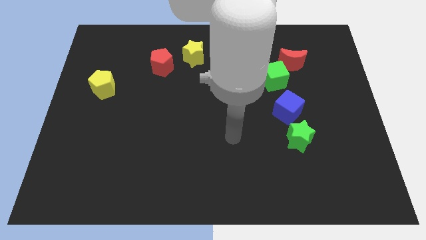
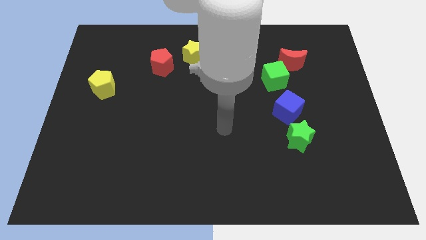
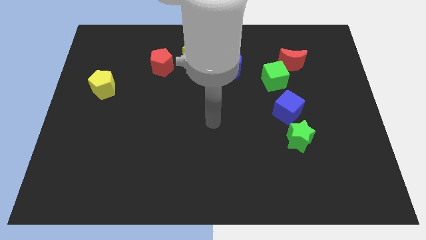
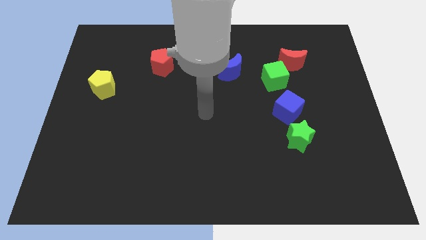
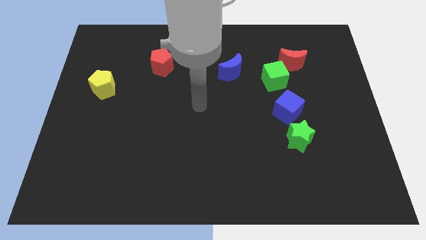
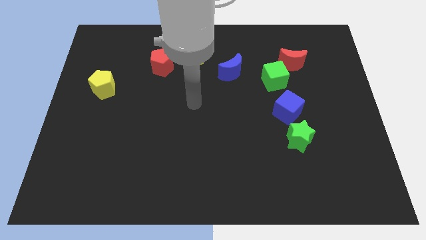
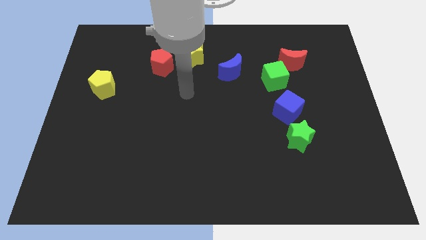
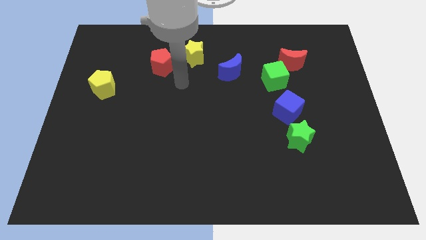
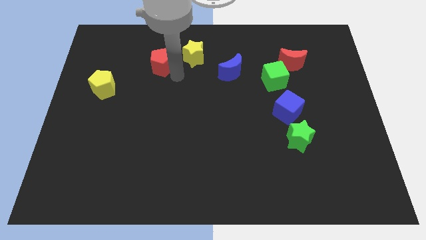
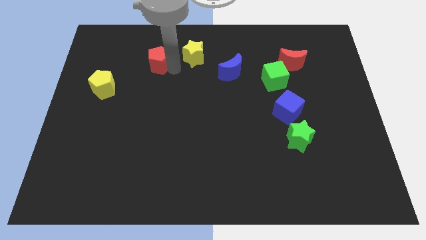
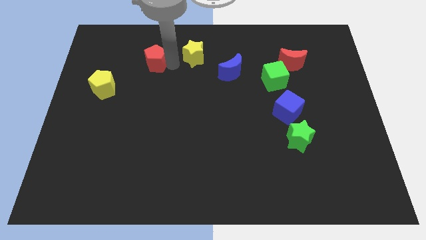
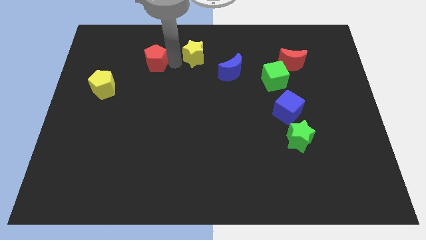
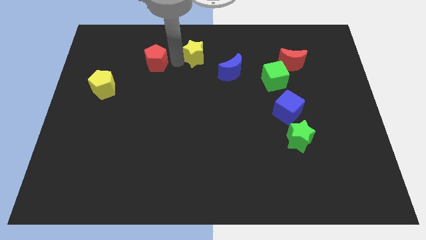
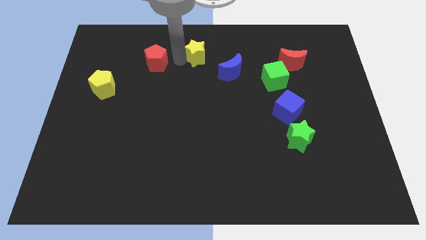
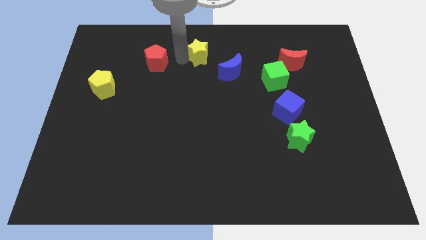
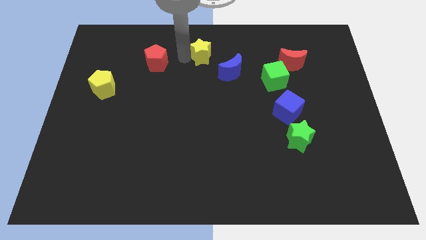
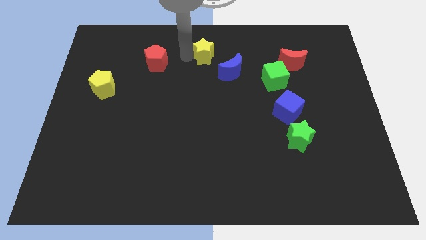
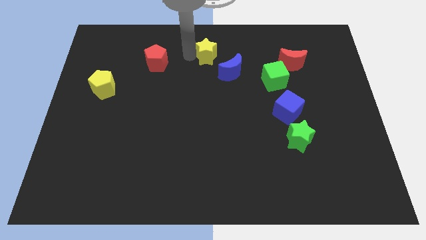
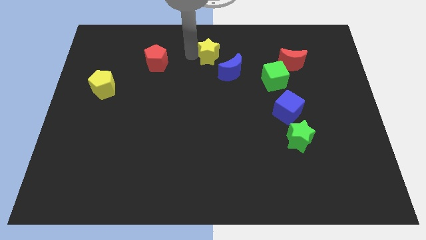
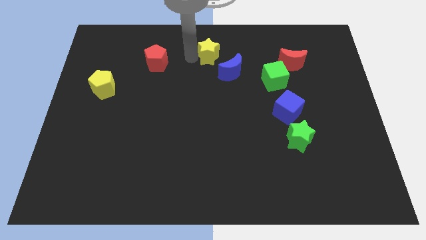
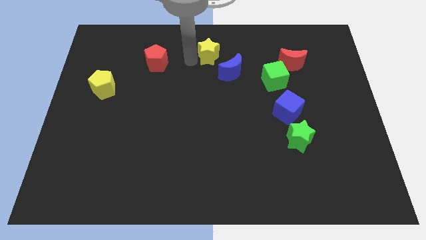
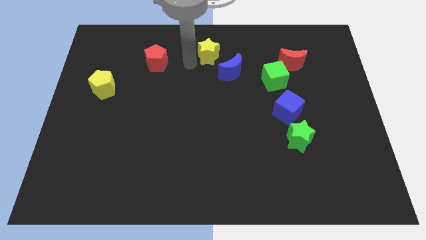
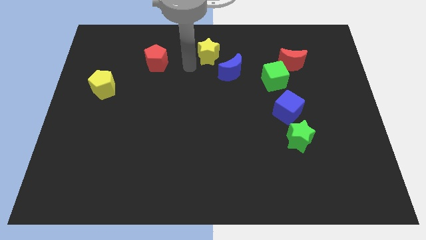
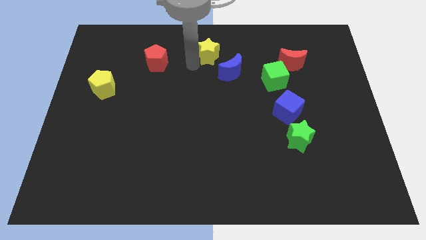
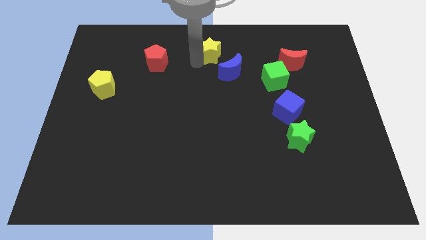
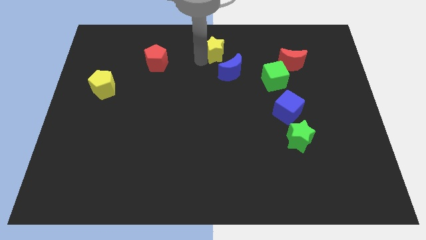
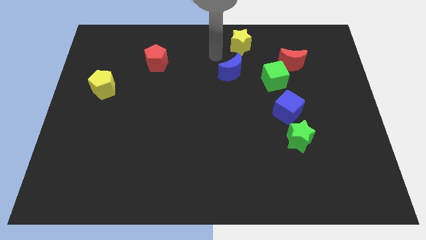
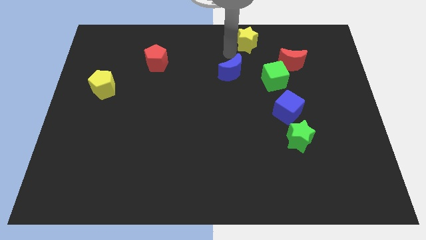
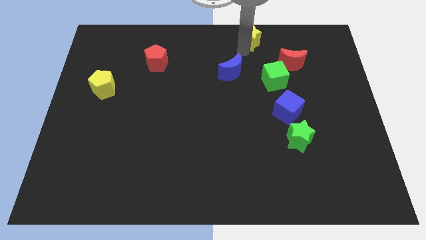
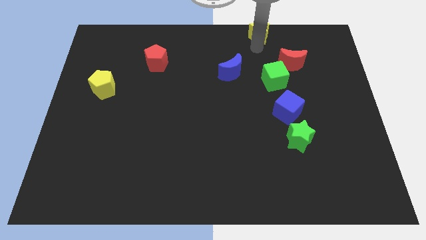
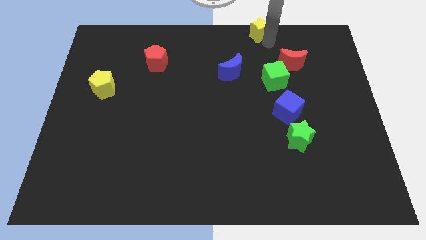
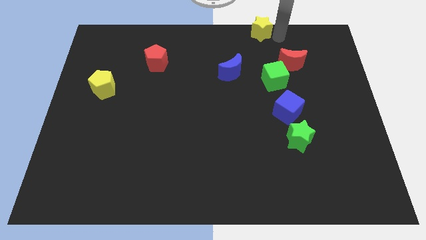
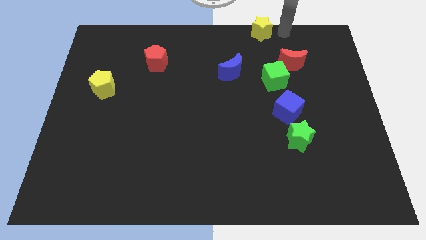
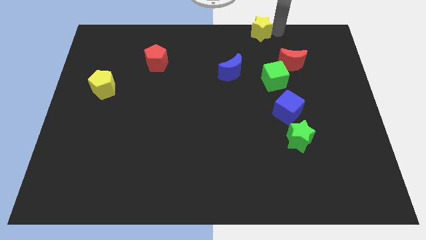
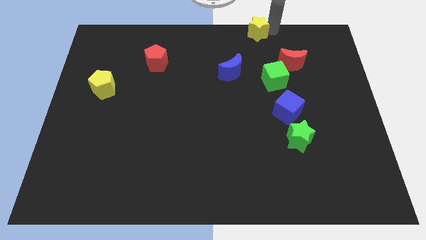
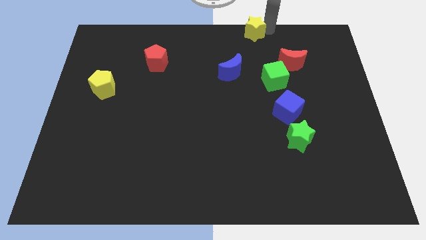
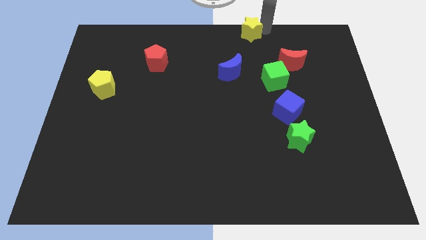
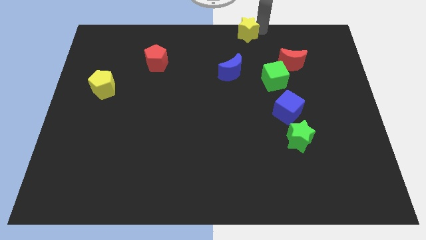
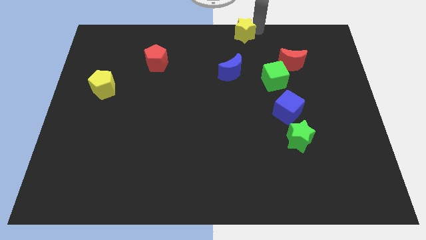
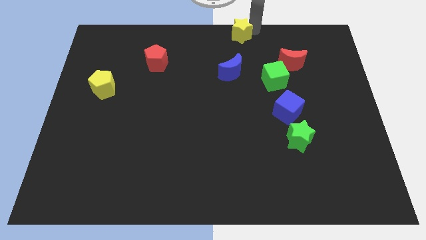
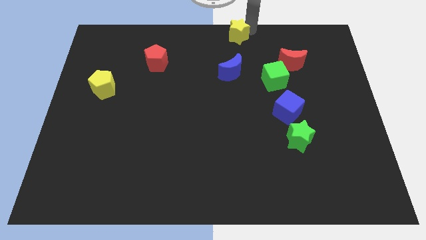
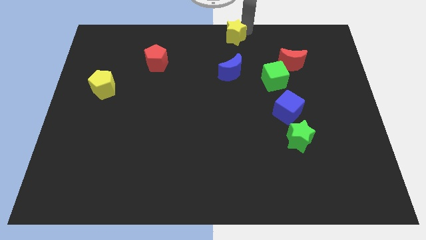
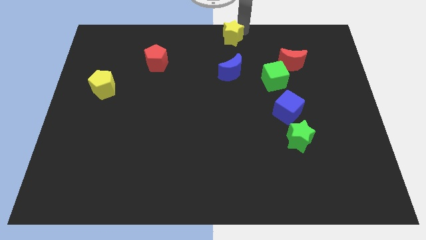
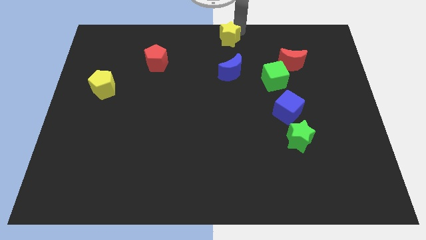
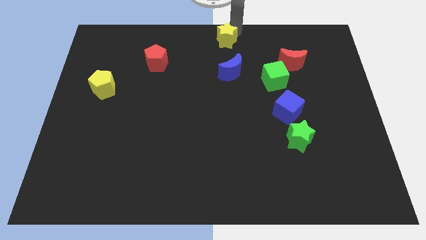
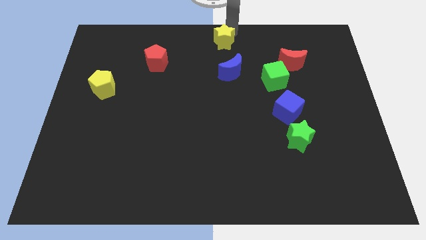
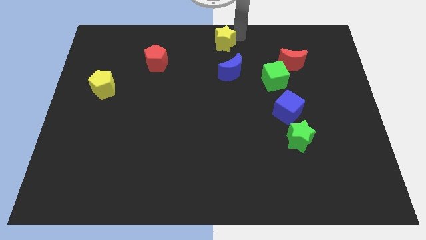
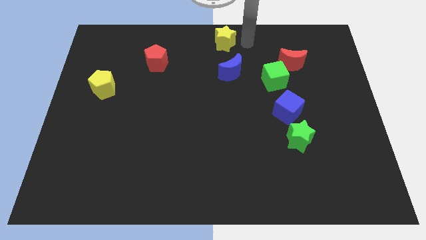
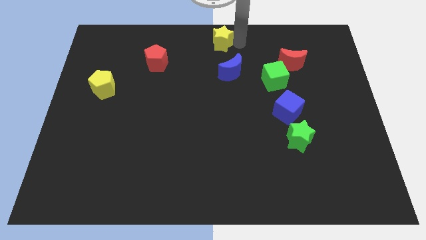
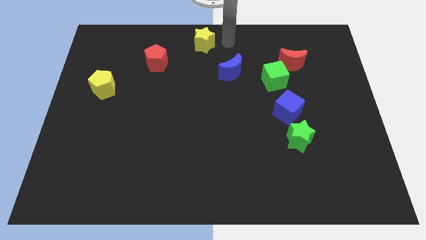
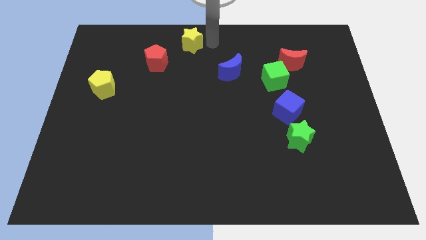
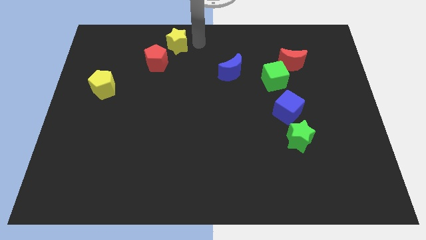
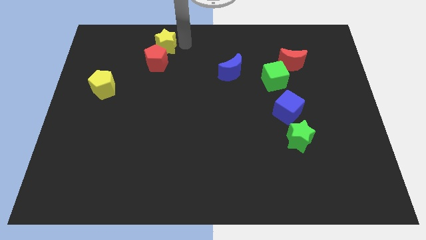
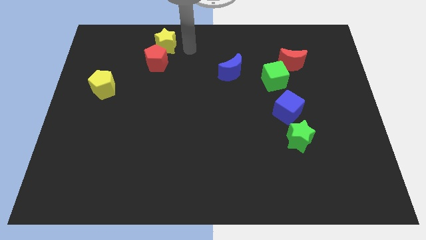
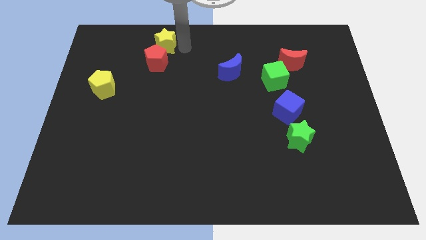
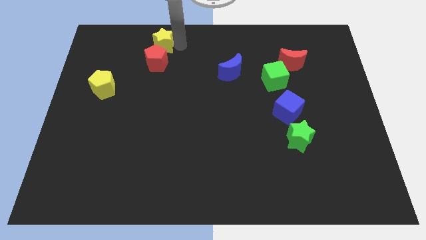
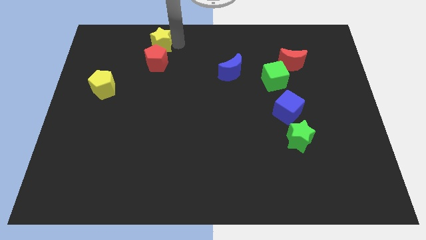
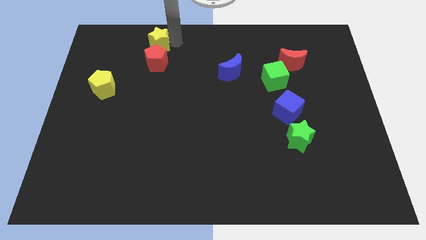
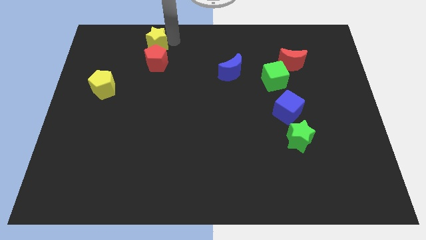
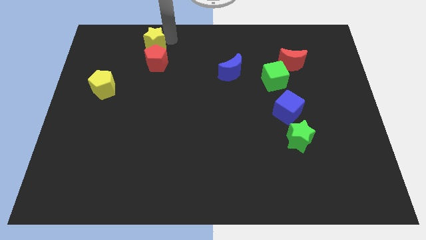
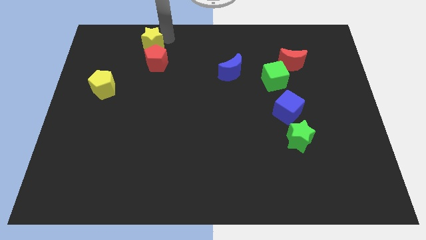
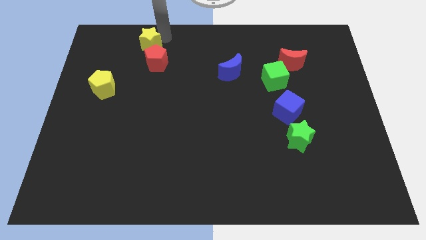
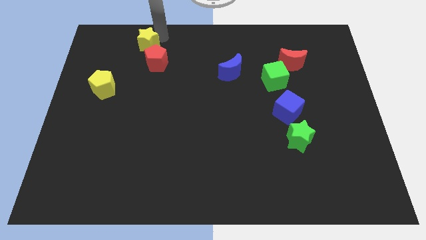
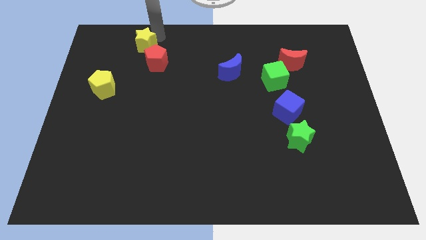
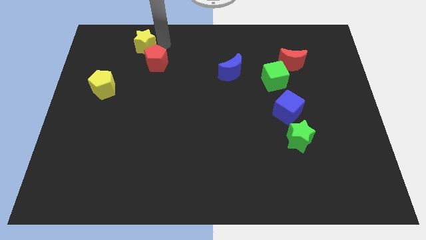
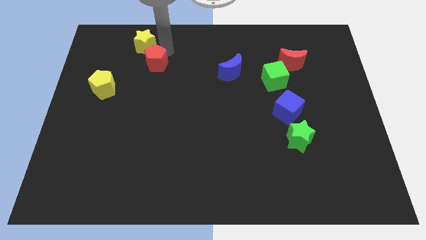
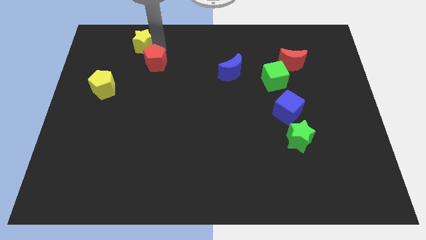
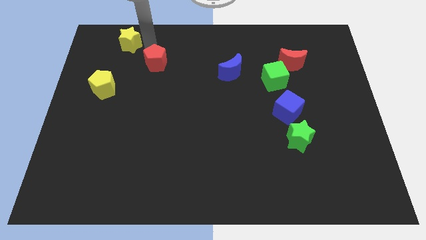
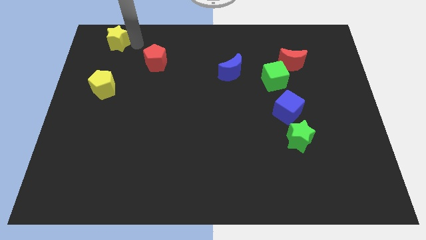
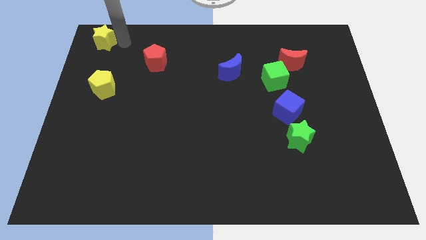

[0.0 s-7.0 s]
slide the yellow star to the top left corner
